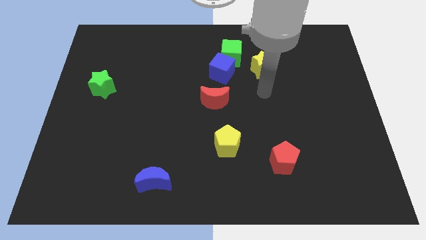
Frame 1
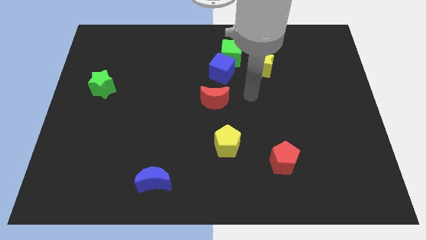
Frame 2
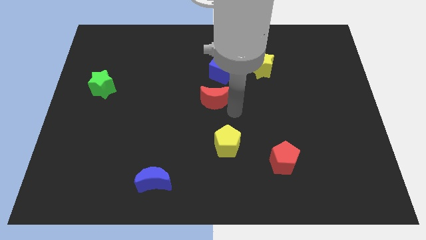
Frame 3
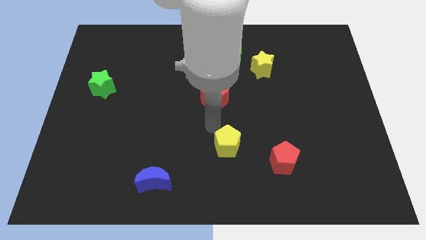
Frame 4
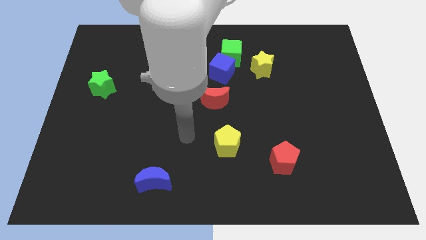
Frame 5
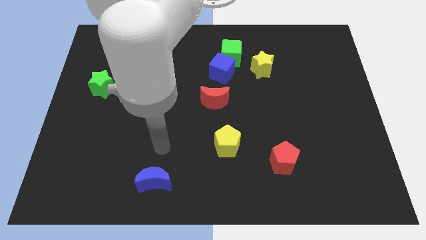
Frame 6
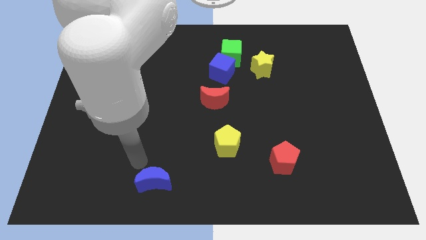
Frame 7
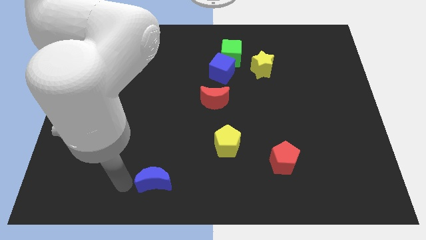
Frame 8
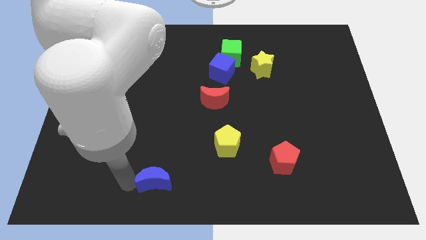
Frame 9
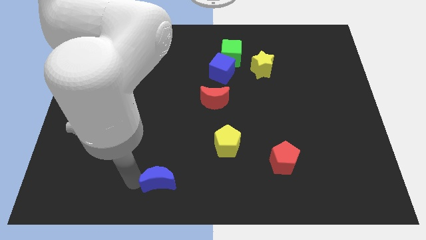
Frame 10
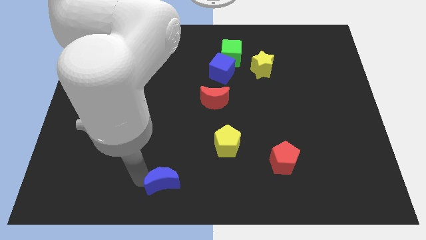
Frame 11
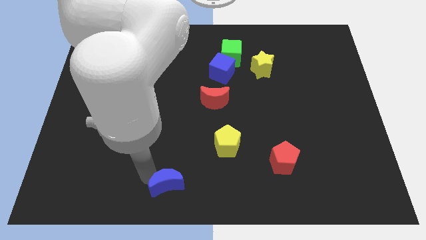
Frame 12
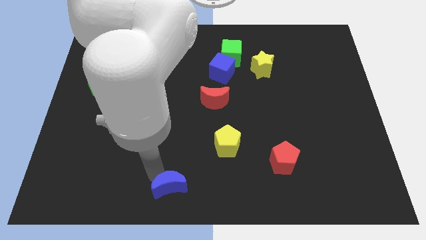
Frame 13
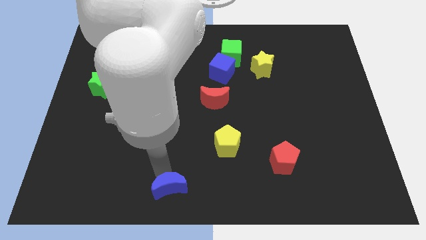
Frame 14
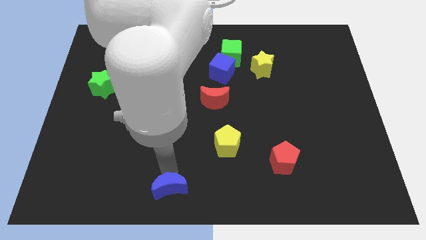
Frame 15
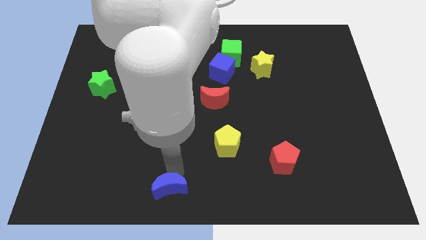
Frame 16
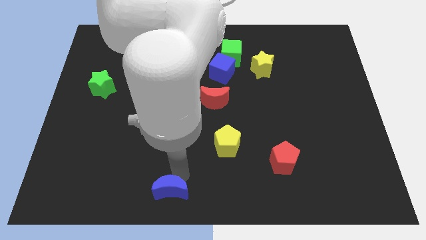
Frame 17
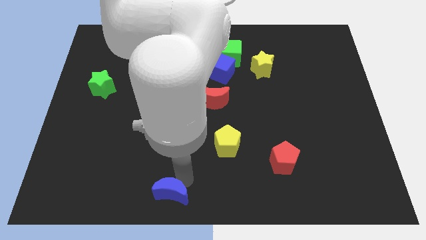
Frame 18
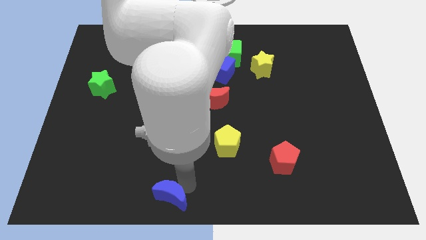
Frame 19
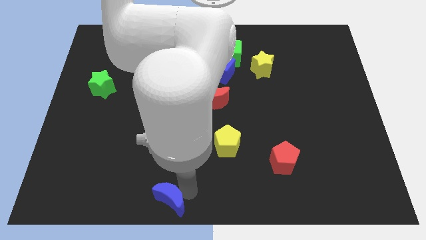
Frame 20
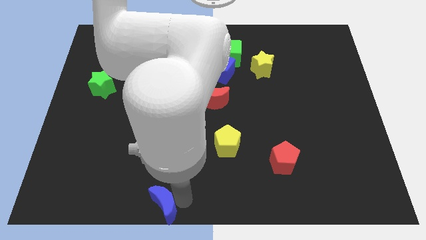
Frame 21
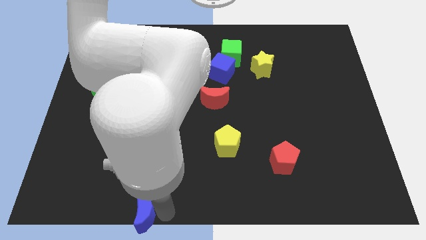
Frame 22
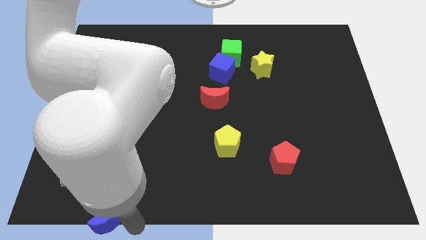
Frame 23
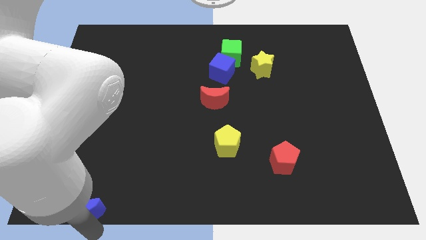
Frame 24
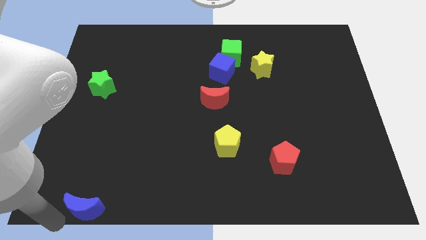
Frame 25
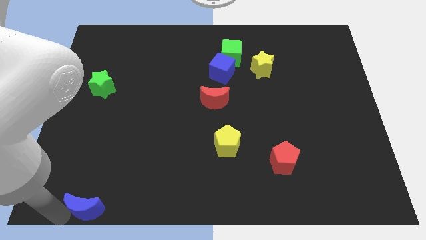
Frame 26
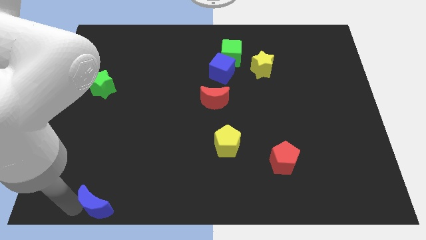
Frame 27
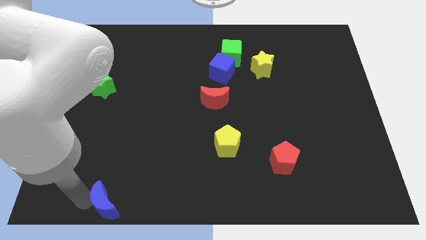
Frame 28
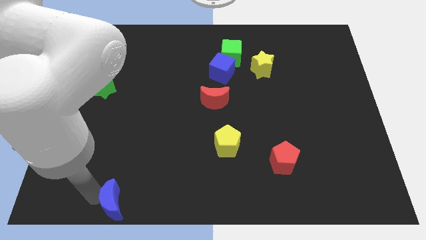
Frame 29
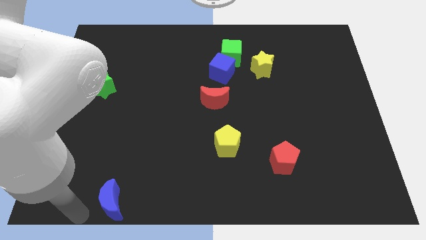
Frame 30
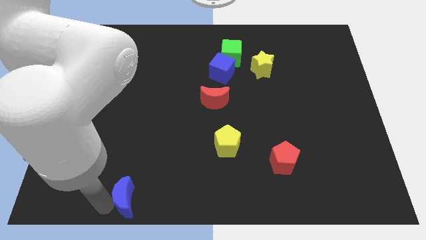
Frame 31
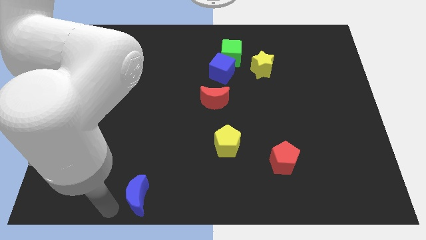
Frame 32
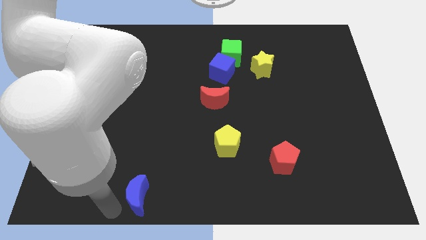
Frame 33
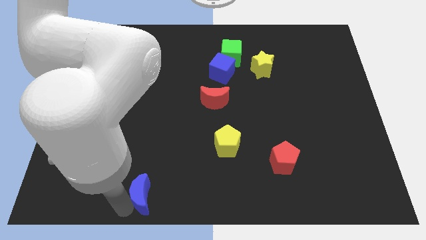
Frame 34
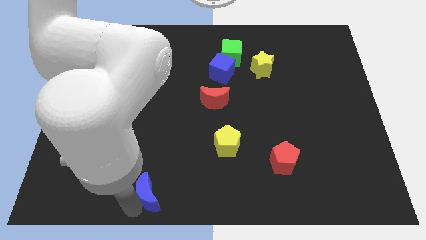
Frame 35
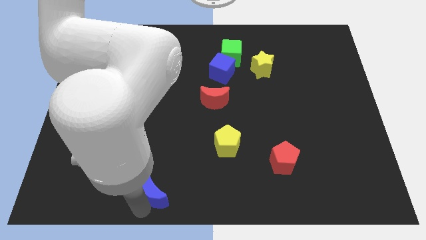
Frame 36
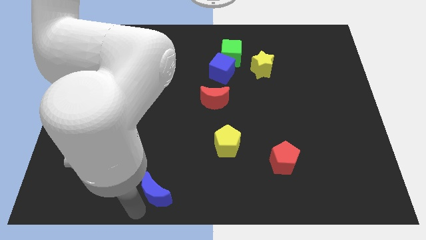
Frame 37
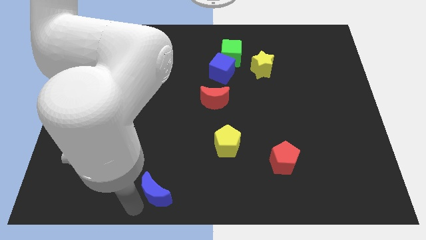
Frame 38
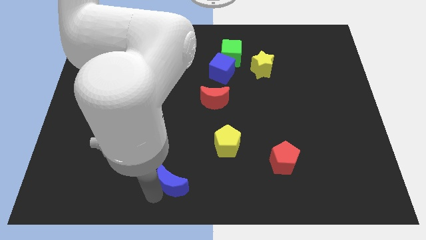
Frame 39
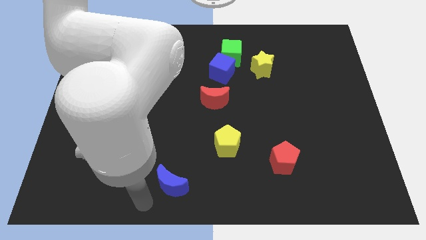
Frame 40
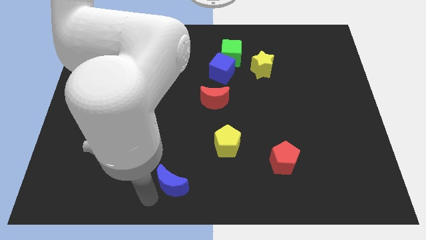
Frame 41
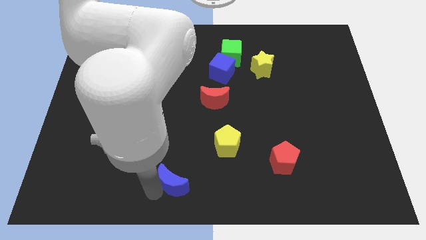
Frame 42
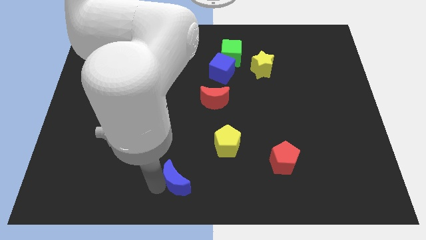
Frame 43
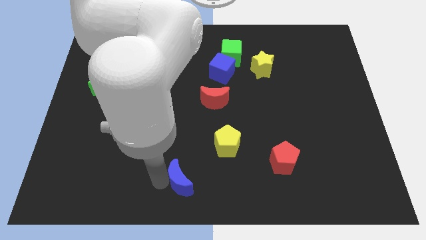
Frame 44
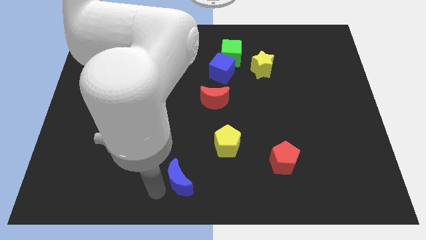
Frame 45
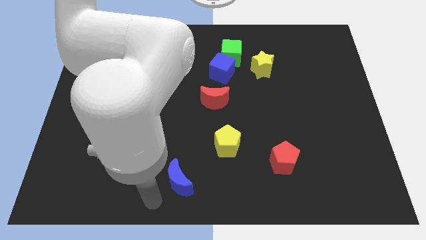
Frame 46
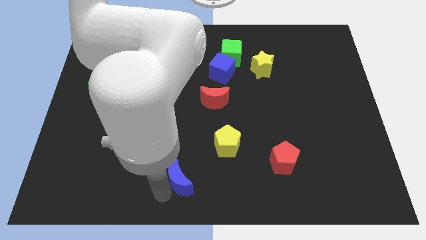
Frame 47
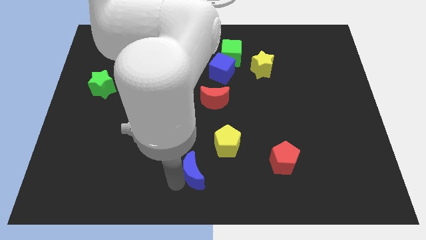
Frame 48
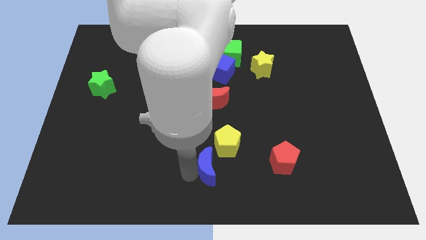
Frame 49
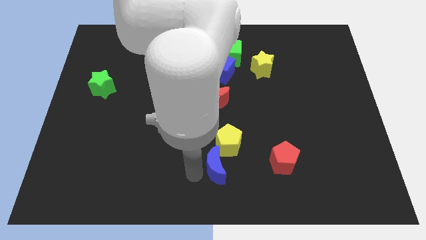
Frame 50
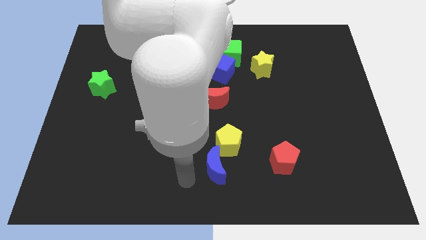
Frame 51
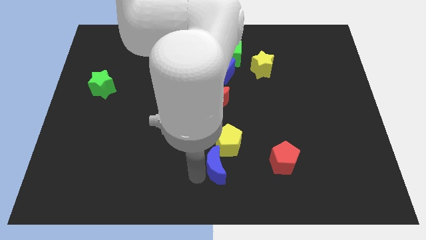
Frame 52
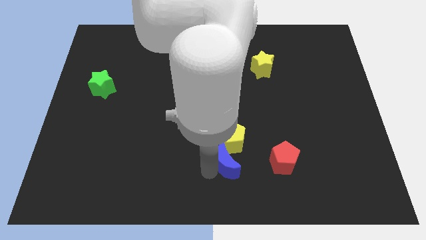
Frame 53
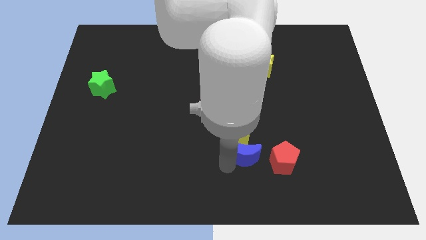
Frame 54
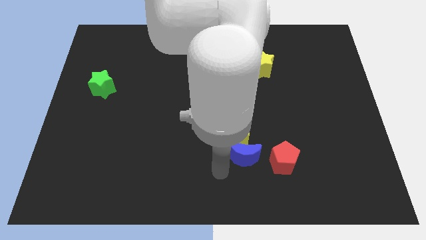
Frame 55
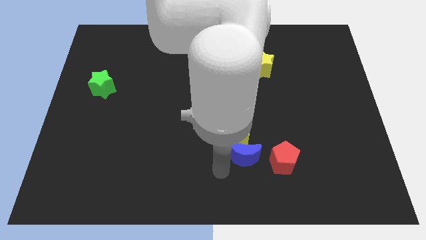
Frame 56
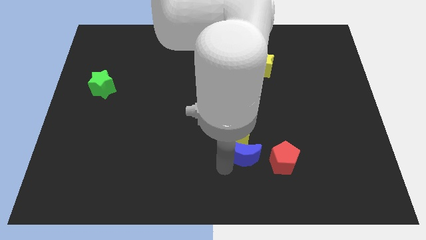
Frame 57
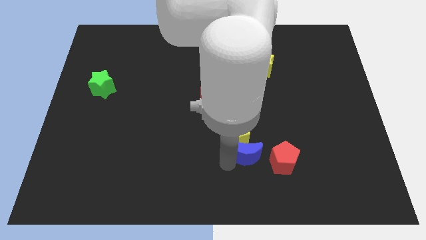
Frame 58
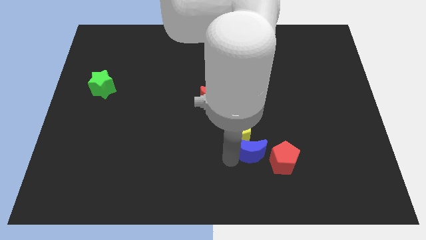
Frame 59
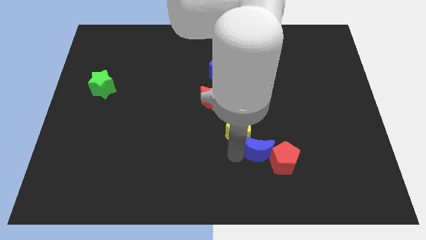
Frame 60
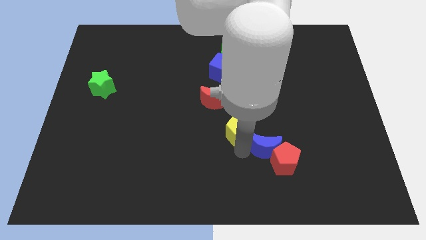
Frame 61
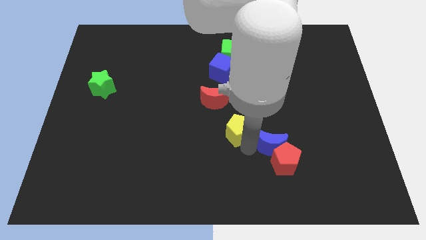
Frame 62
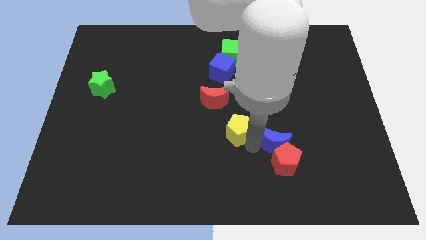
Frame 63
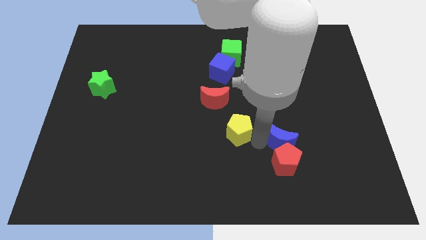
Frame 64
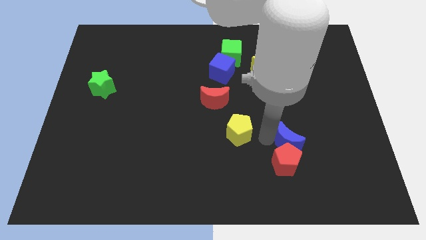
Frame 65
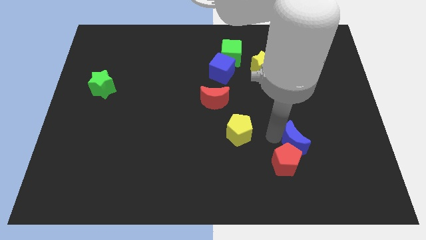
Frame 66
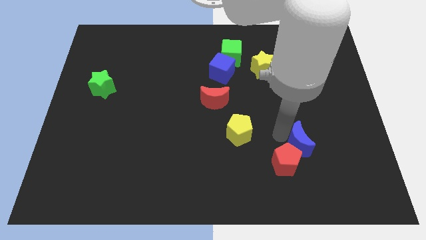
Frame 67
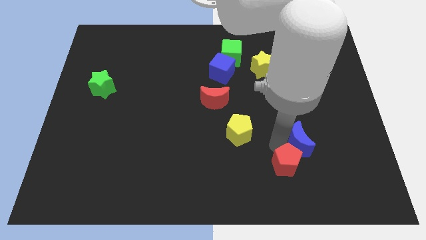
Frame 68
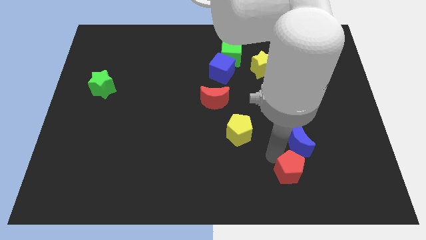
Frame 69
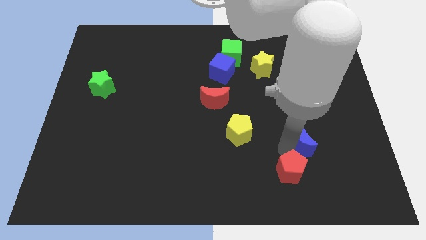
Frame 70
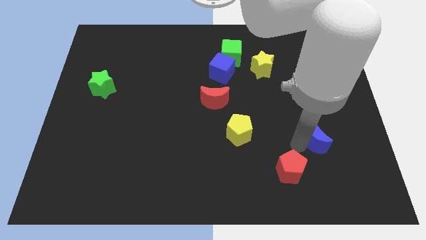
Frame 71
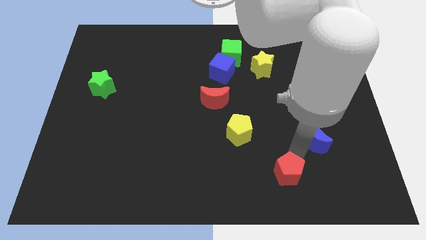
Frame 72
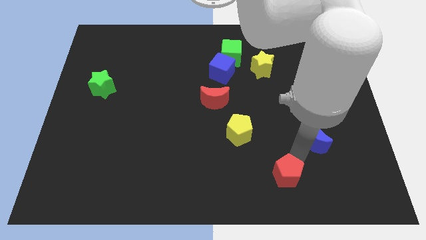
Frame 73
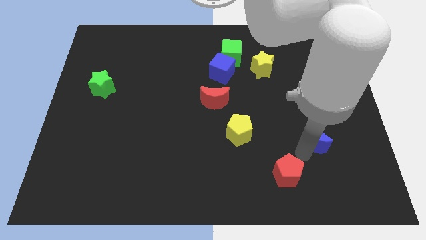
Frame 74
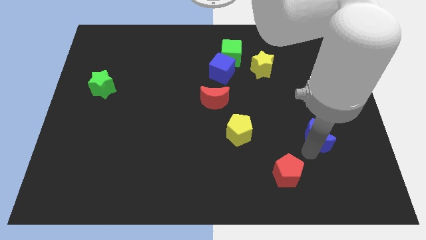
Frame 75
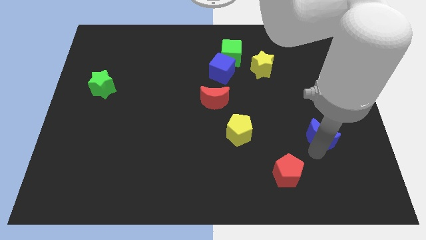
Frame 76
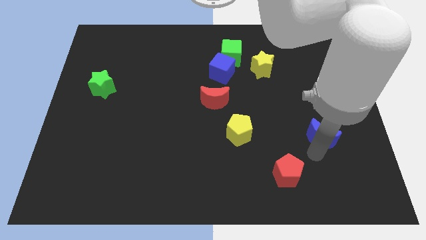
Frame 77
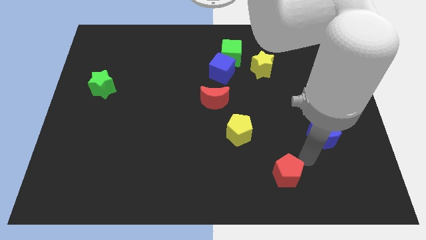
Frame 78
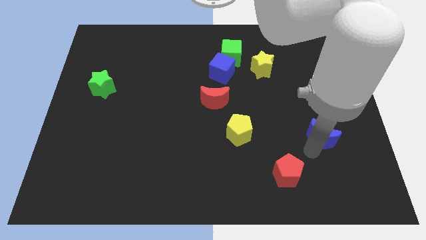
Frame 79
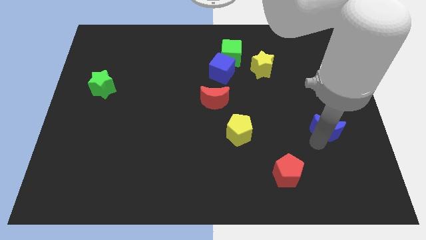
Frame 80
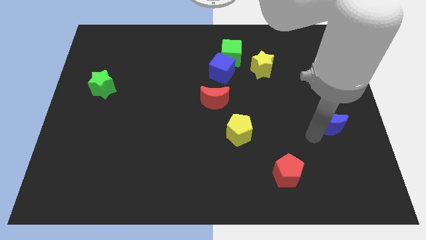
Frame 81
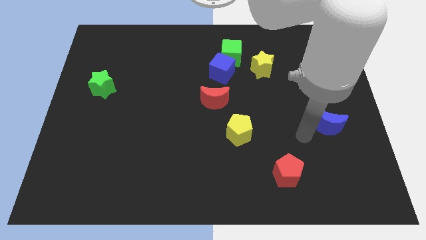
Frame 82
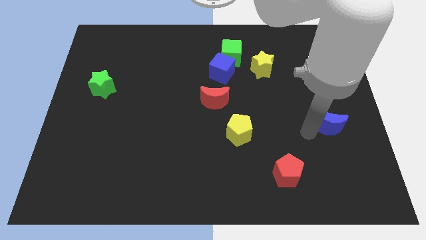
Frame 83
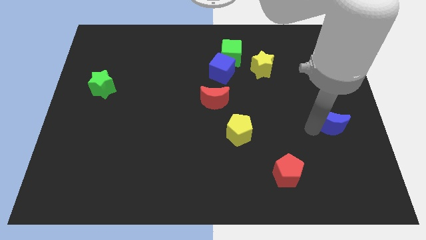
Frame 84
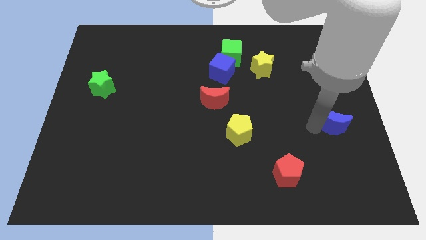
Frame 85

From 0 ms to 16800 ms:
slide the blue moon to the right side
